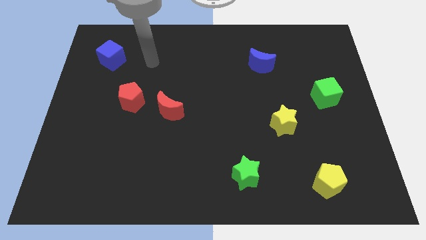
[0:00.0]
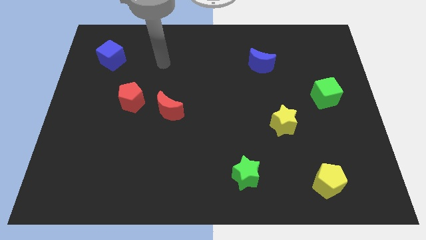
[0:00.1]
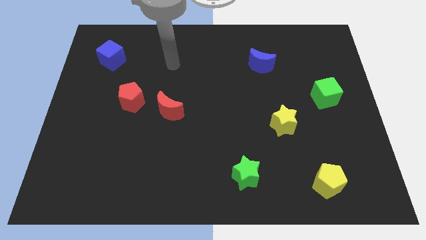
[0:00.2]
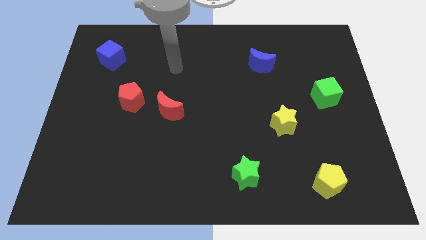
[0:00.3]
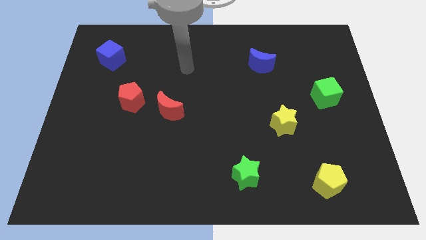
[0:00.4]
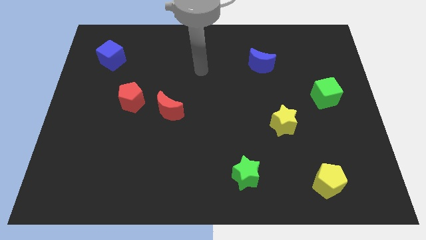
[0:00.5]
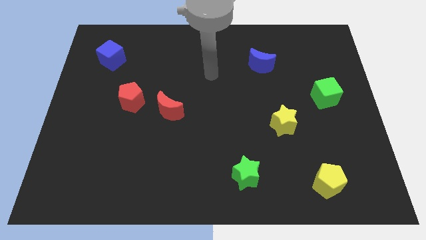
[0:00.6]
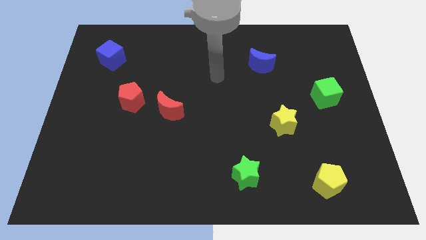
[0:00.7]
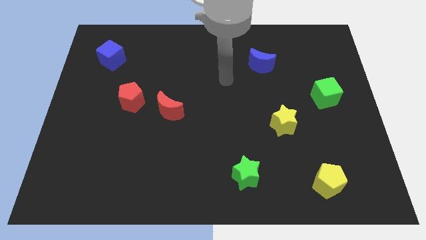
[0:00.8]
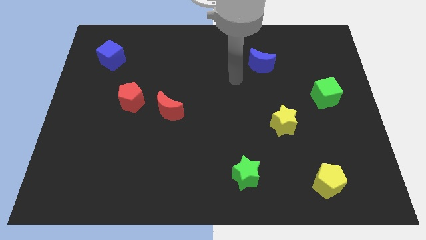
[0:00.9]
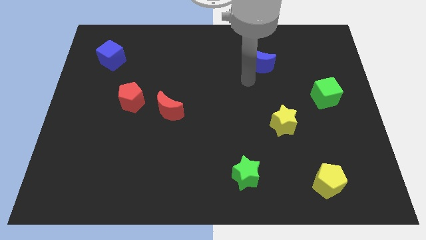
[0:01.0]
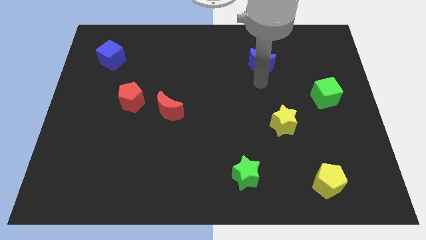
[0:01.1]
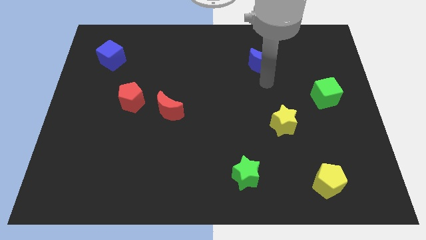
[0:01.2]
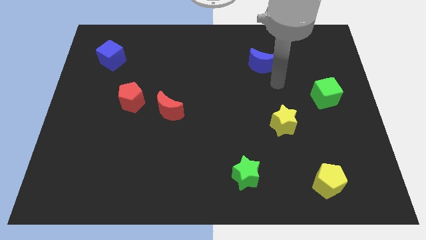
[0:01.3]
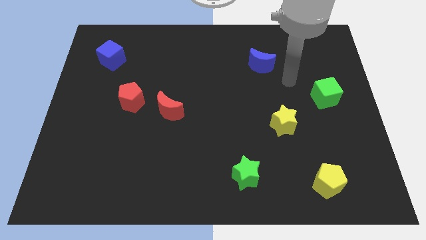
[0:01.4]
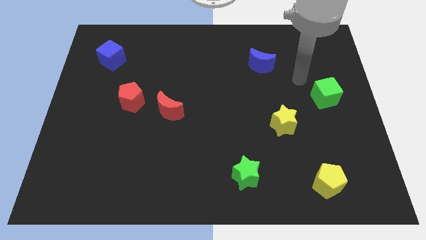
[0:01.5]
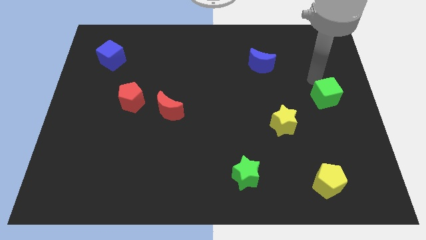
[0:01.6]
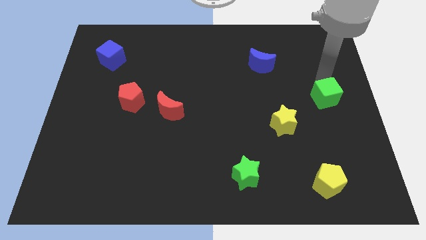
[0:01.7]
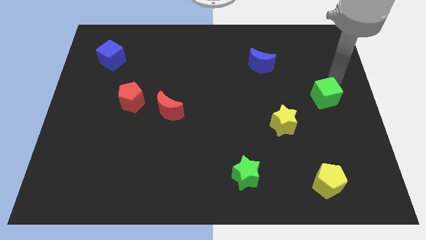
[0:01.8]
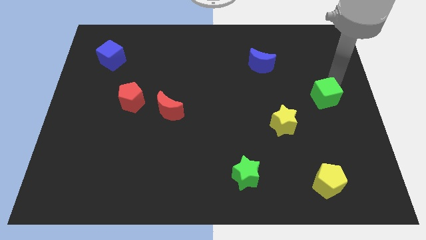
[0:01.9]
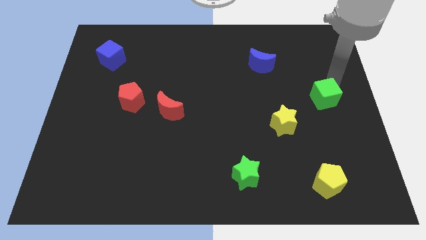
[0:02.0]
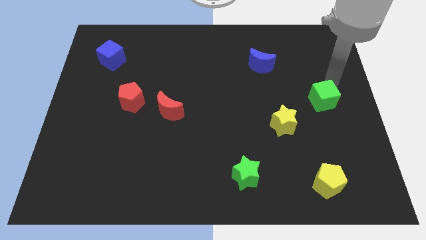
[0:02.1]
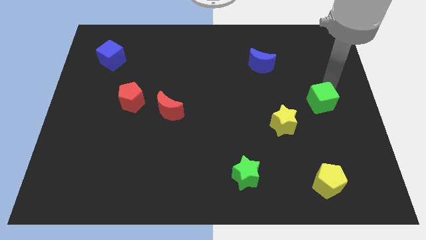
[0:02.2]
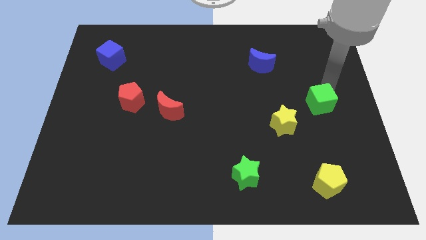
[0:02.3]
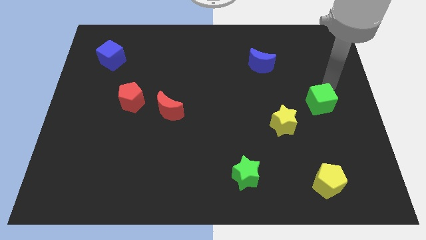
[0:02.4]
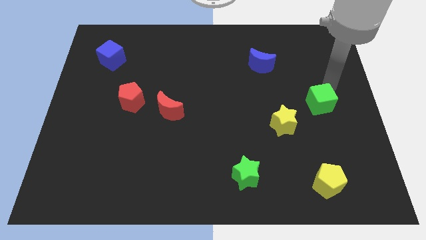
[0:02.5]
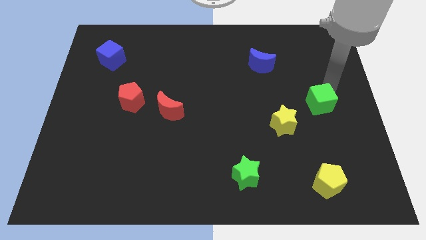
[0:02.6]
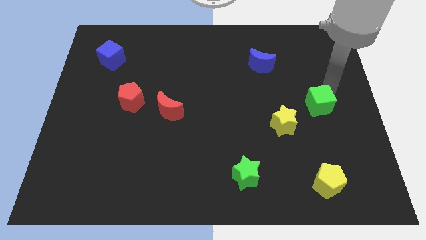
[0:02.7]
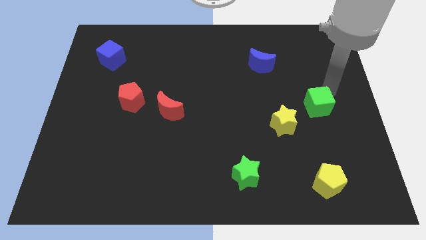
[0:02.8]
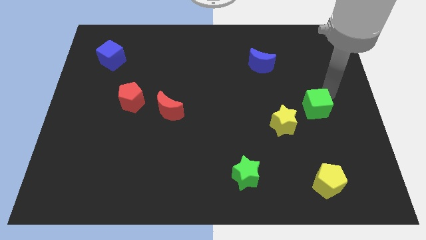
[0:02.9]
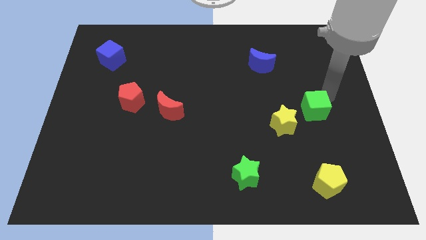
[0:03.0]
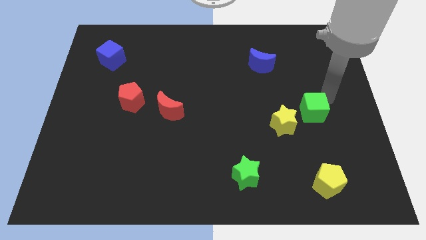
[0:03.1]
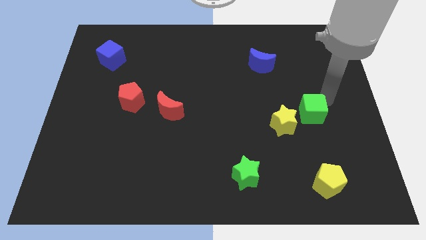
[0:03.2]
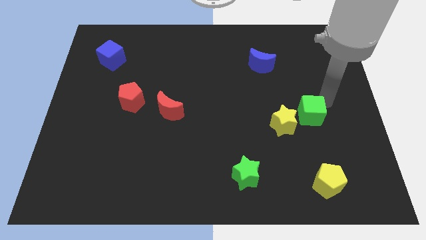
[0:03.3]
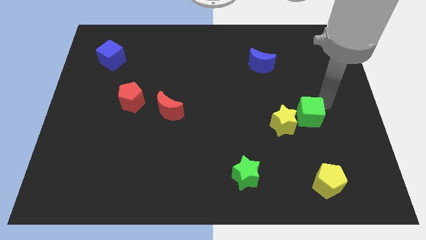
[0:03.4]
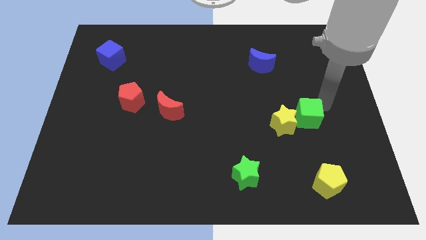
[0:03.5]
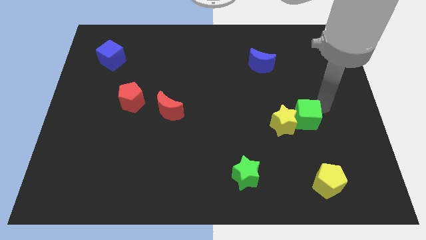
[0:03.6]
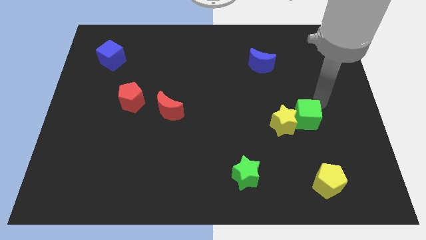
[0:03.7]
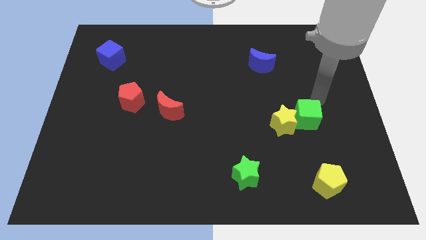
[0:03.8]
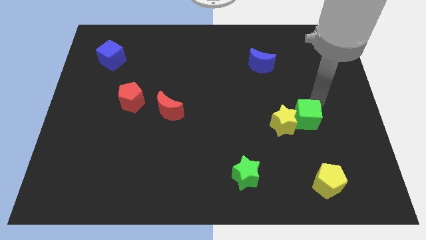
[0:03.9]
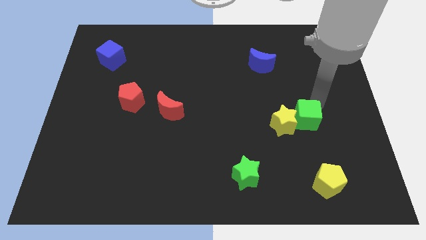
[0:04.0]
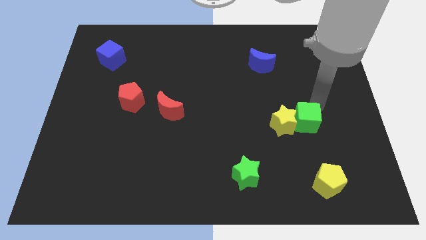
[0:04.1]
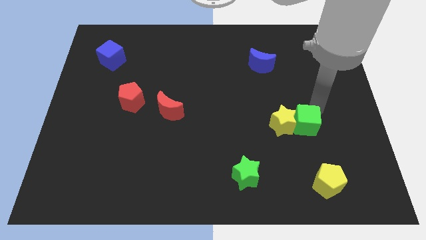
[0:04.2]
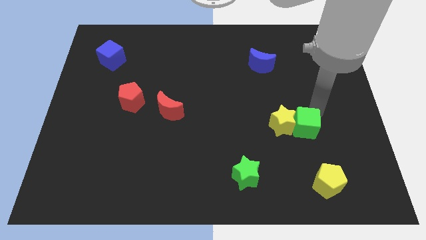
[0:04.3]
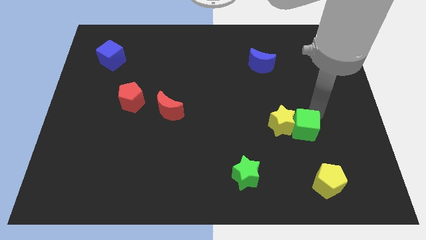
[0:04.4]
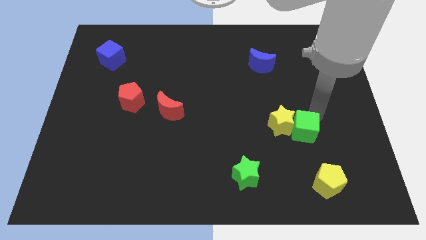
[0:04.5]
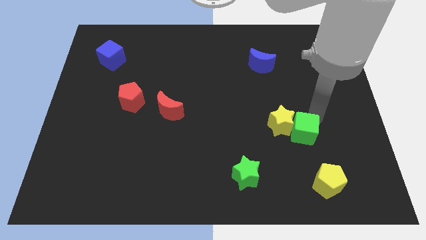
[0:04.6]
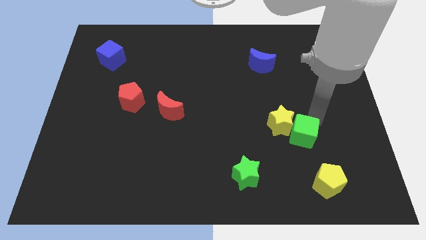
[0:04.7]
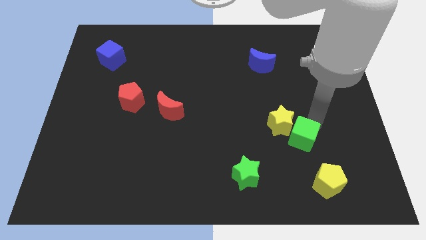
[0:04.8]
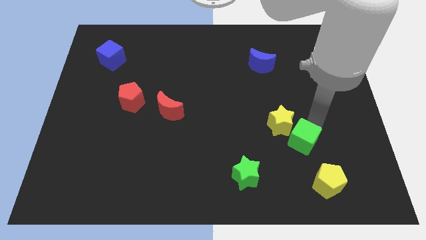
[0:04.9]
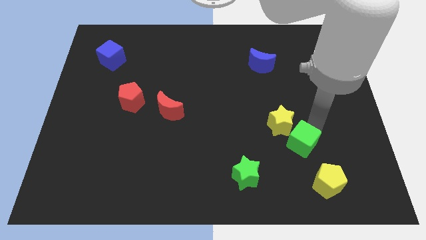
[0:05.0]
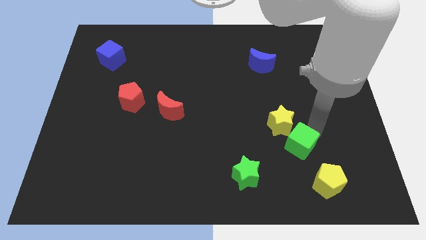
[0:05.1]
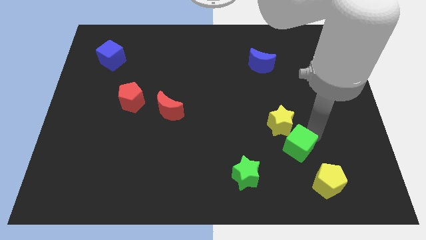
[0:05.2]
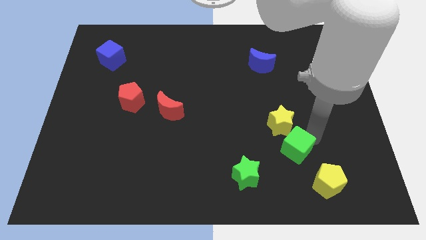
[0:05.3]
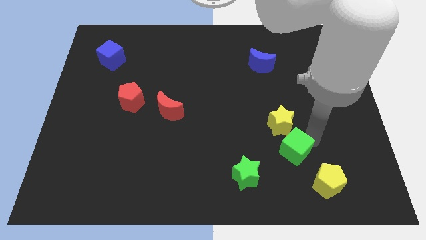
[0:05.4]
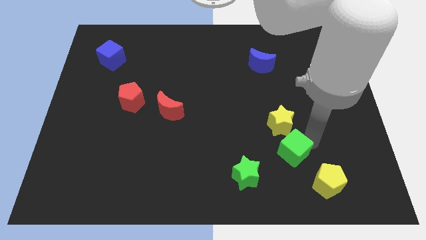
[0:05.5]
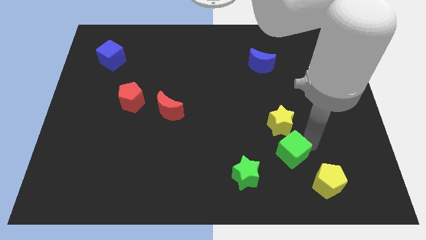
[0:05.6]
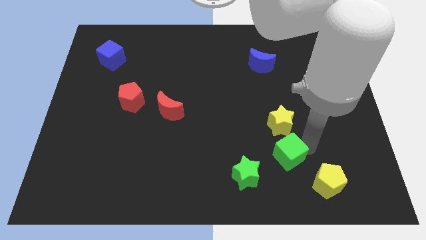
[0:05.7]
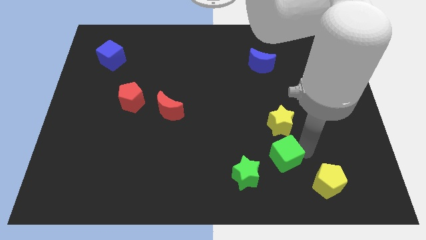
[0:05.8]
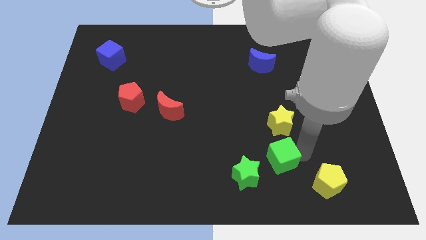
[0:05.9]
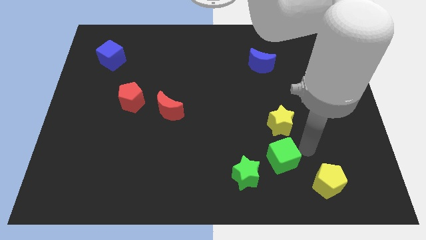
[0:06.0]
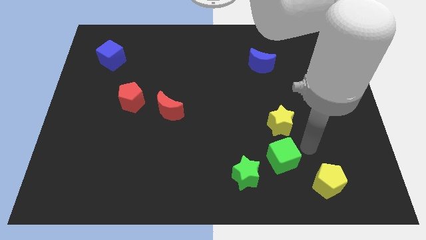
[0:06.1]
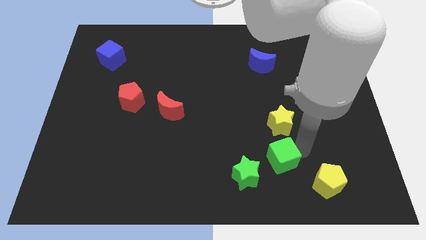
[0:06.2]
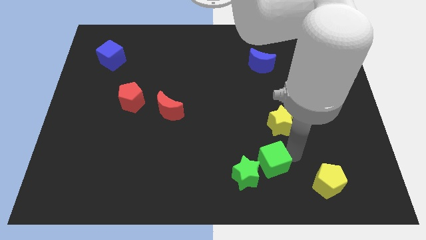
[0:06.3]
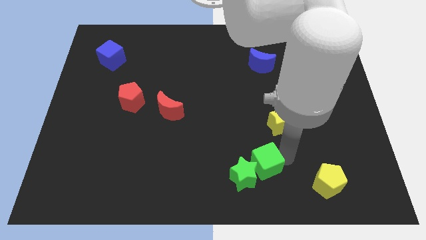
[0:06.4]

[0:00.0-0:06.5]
push the green cube next to the green star
